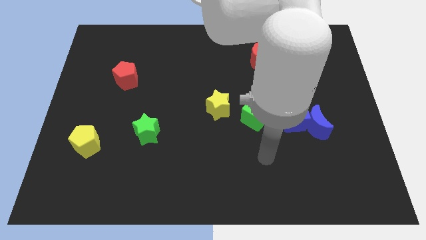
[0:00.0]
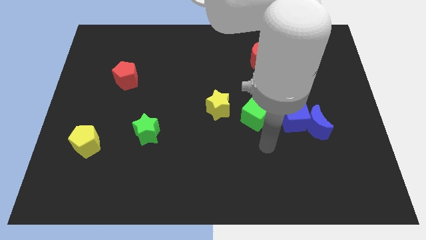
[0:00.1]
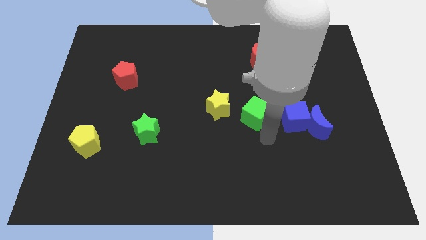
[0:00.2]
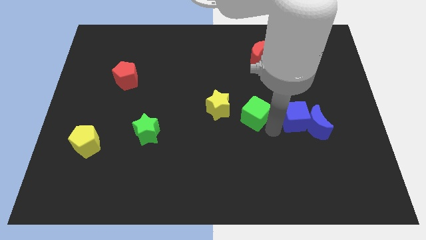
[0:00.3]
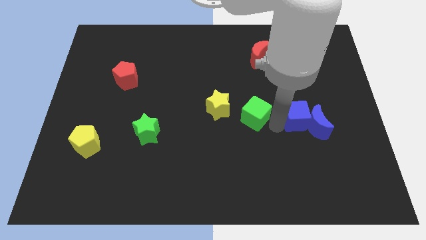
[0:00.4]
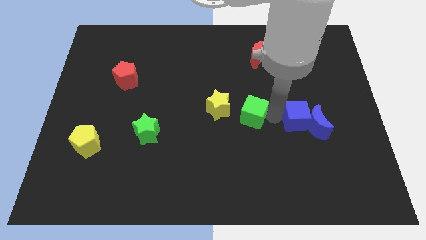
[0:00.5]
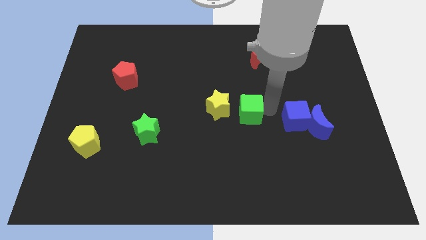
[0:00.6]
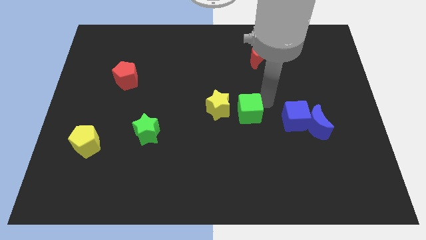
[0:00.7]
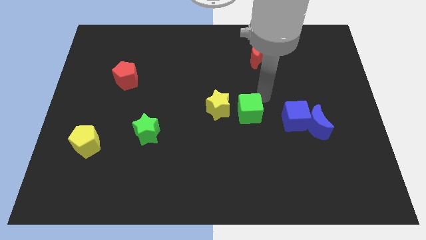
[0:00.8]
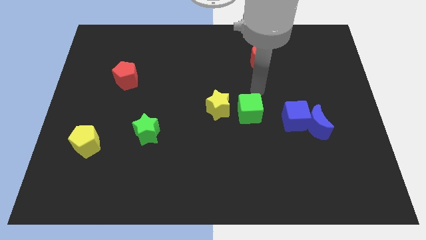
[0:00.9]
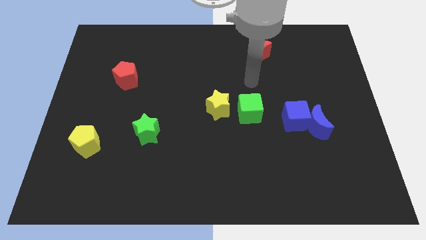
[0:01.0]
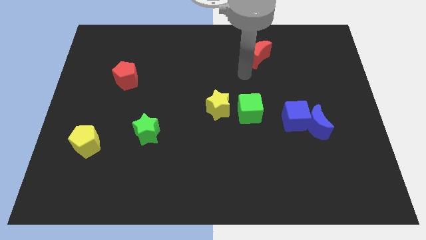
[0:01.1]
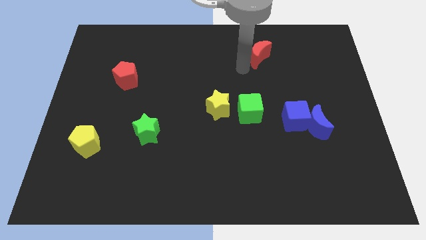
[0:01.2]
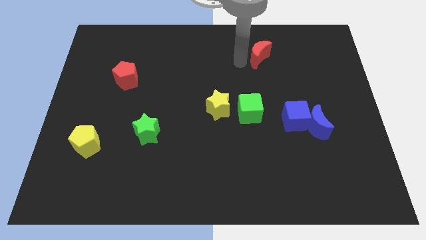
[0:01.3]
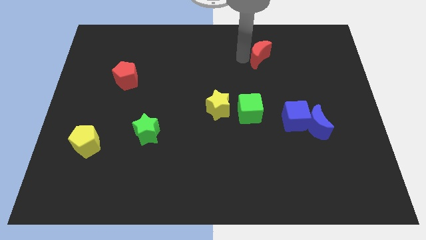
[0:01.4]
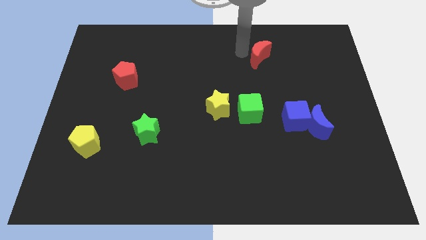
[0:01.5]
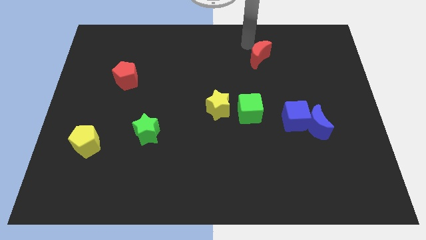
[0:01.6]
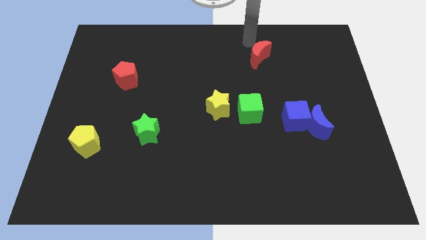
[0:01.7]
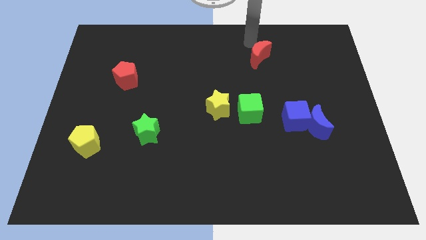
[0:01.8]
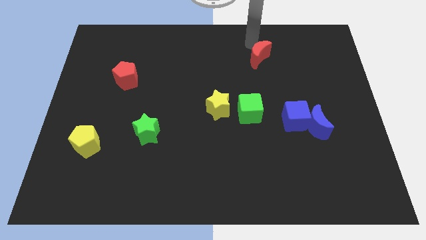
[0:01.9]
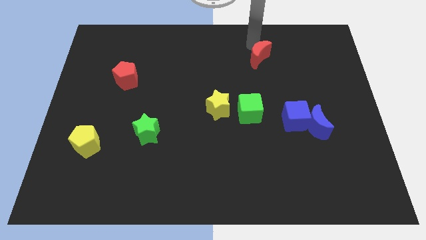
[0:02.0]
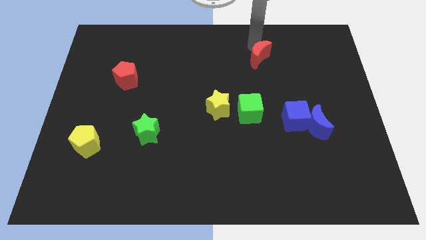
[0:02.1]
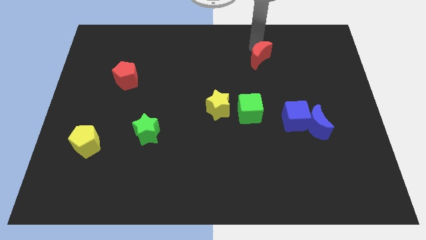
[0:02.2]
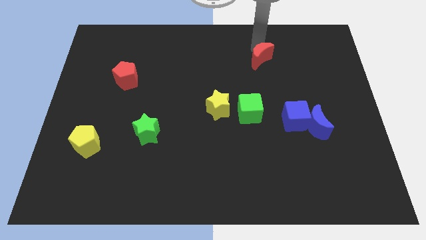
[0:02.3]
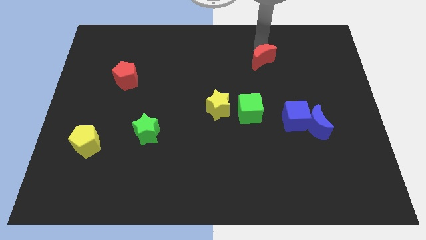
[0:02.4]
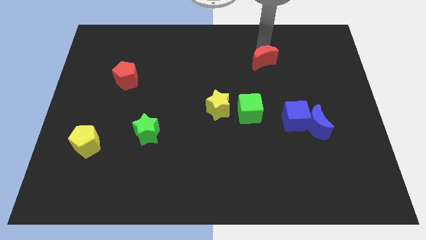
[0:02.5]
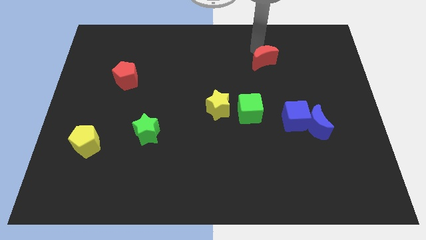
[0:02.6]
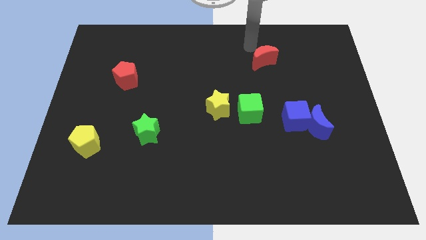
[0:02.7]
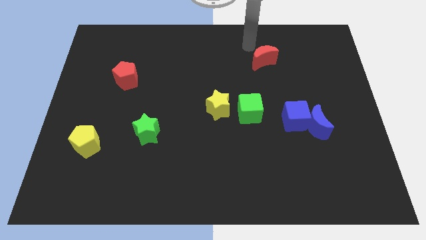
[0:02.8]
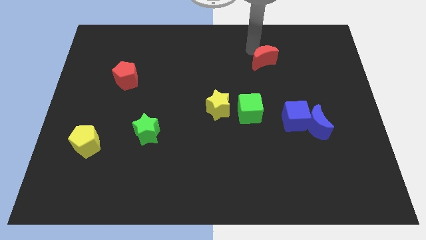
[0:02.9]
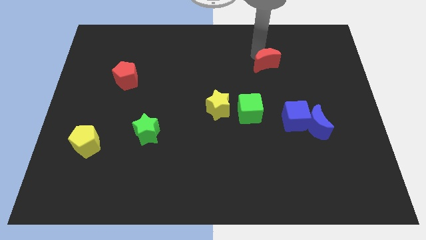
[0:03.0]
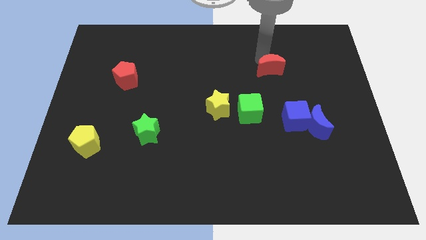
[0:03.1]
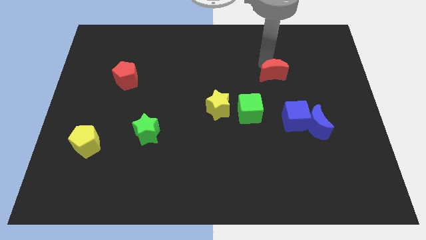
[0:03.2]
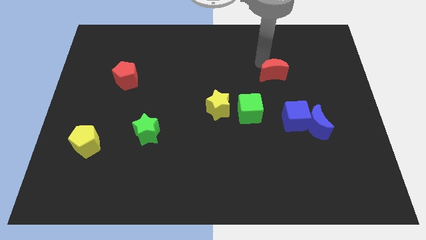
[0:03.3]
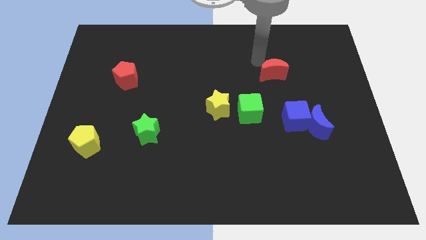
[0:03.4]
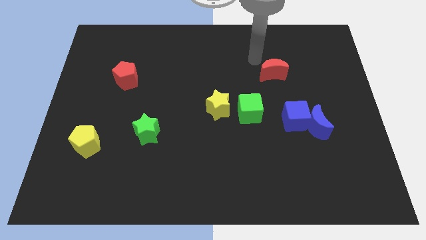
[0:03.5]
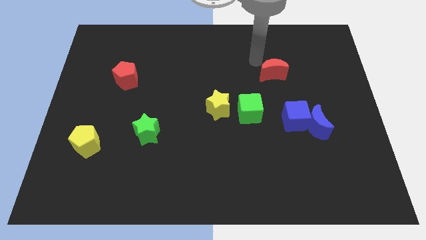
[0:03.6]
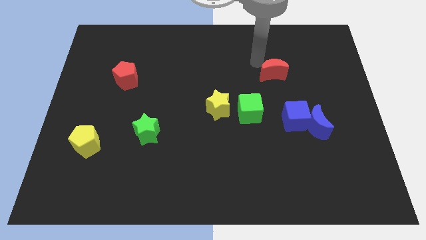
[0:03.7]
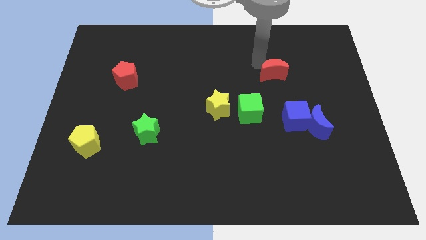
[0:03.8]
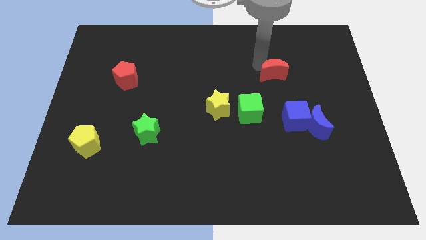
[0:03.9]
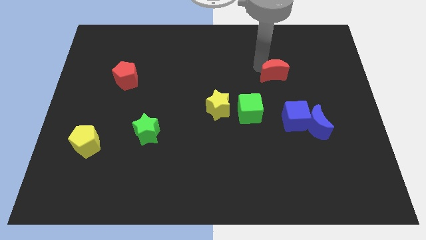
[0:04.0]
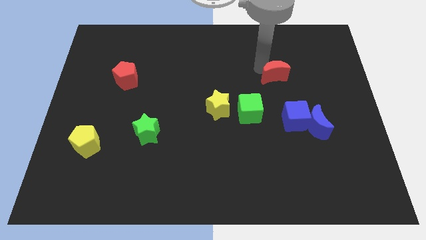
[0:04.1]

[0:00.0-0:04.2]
push the red moon down and then right a bit

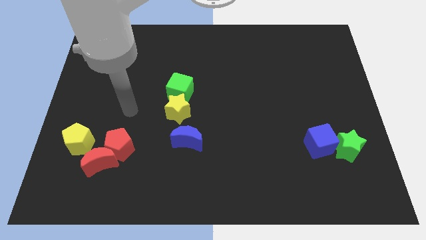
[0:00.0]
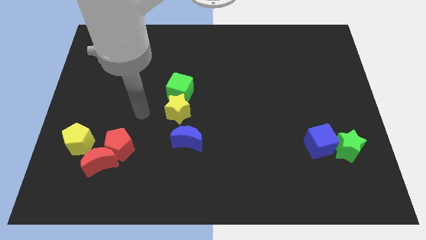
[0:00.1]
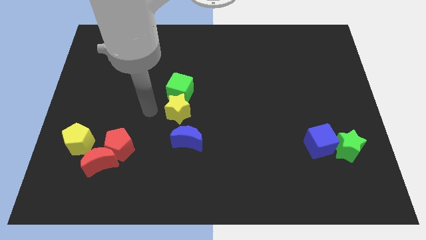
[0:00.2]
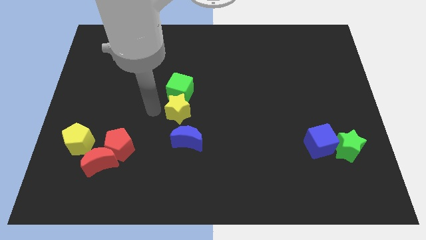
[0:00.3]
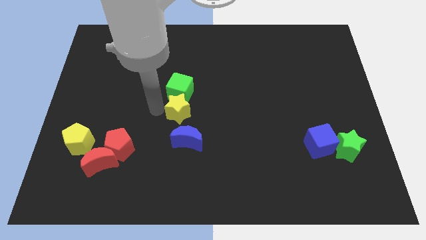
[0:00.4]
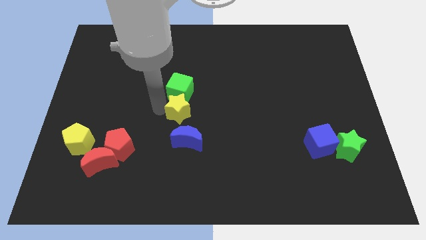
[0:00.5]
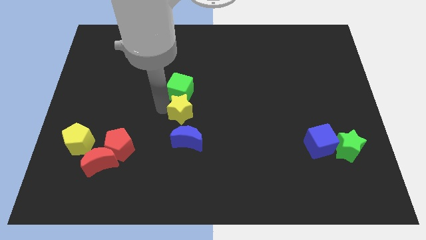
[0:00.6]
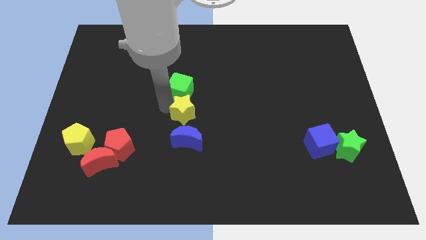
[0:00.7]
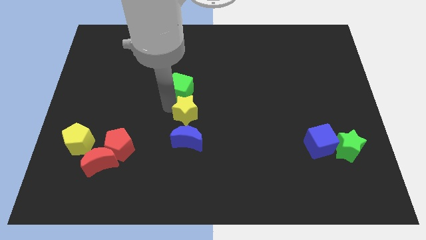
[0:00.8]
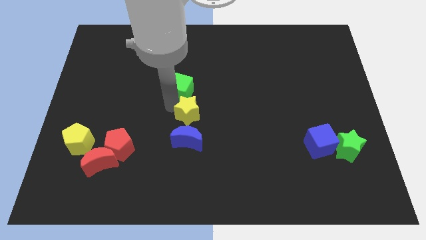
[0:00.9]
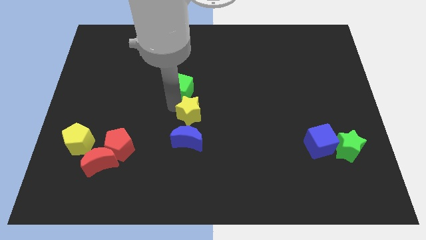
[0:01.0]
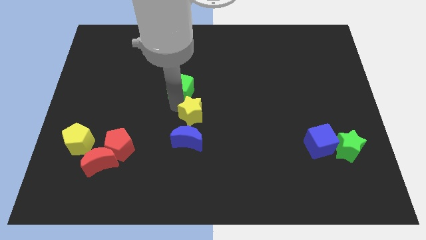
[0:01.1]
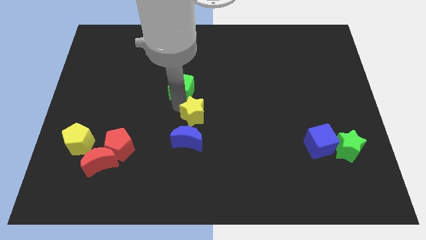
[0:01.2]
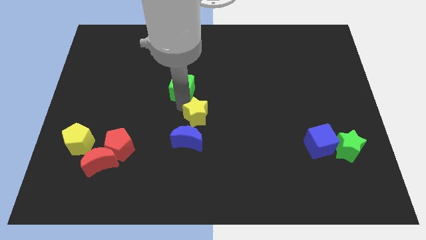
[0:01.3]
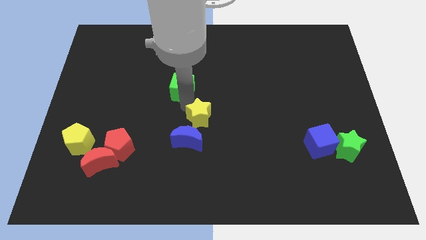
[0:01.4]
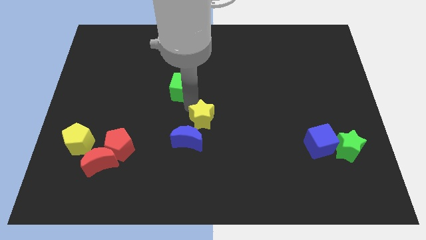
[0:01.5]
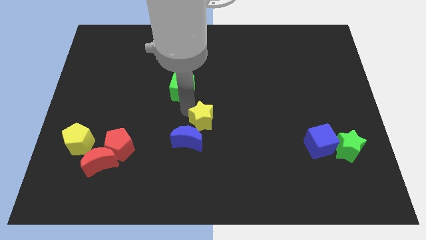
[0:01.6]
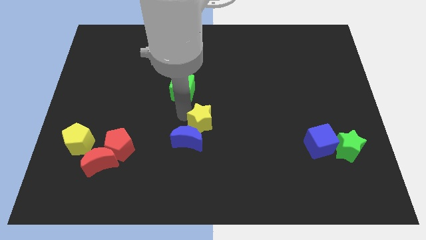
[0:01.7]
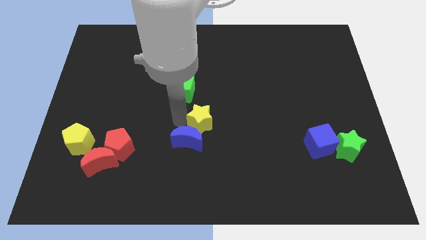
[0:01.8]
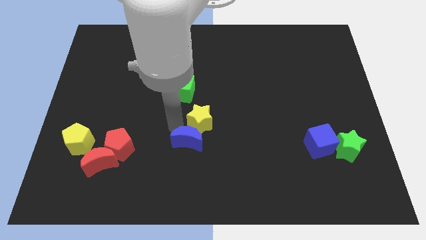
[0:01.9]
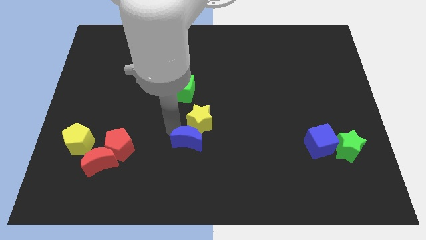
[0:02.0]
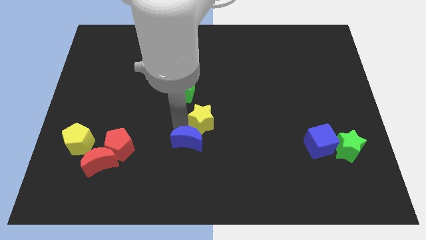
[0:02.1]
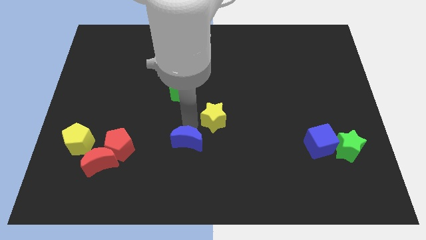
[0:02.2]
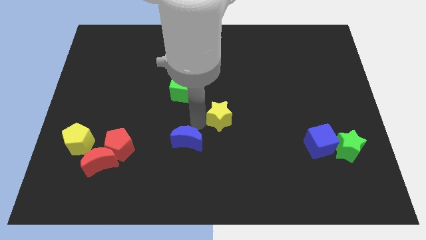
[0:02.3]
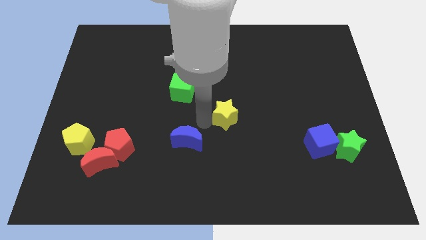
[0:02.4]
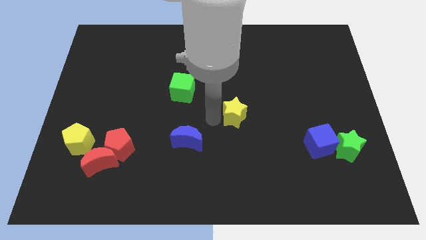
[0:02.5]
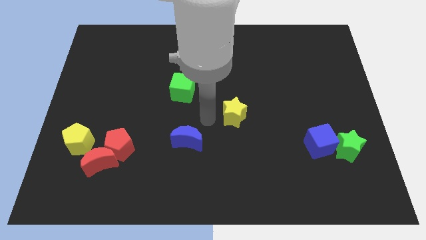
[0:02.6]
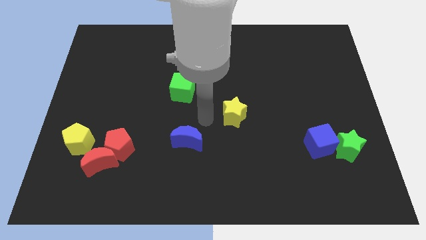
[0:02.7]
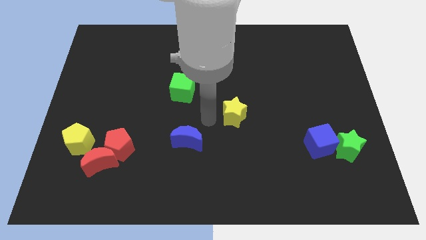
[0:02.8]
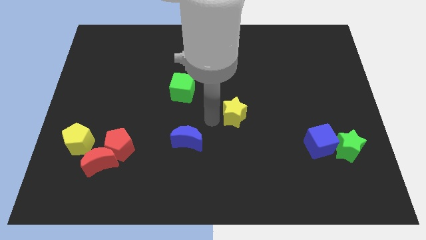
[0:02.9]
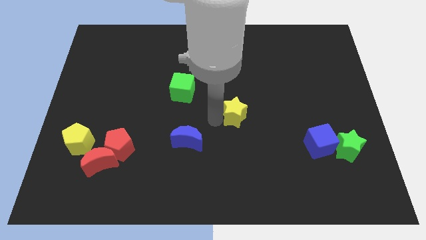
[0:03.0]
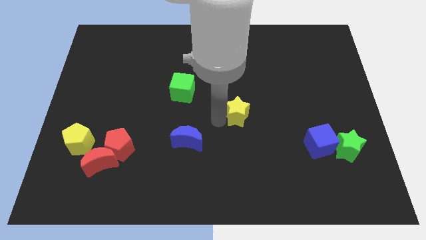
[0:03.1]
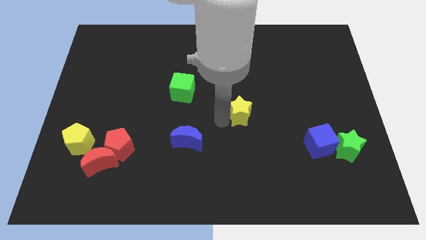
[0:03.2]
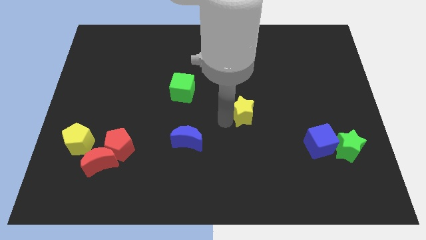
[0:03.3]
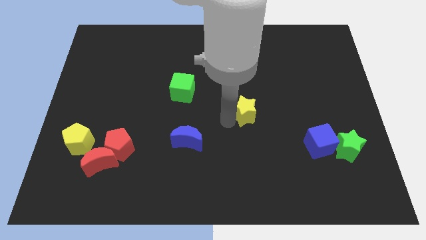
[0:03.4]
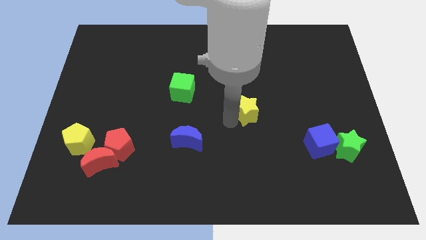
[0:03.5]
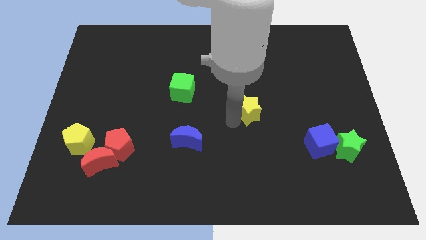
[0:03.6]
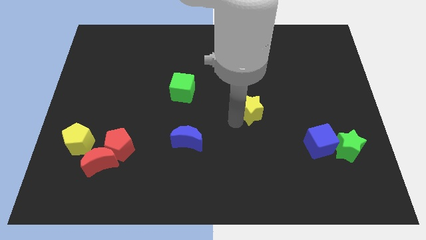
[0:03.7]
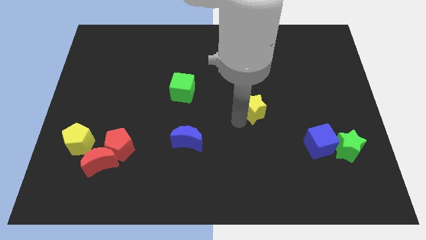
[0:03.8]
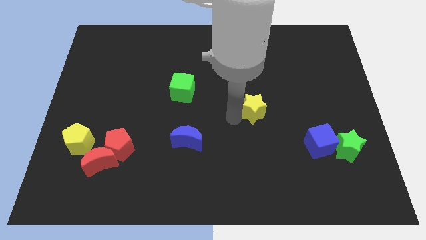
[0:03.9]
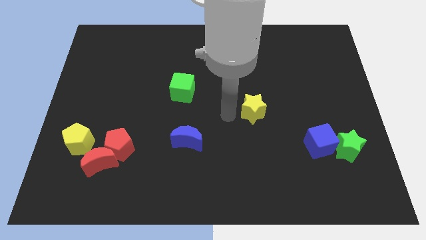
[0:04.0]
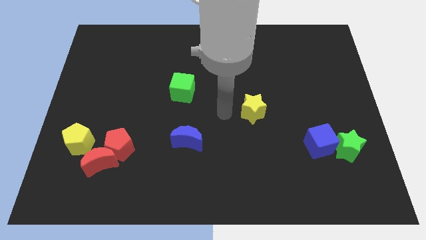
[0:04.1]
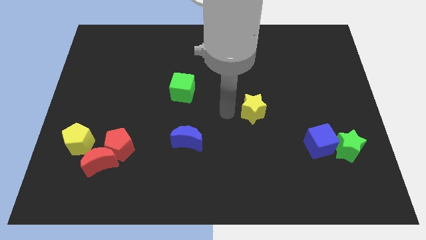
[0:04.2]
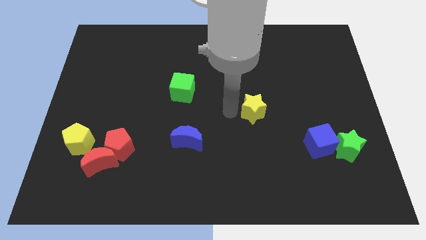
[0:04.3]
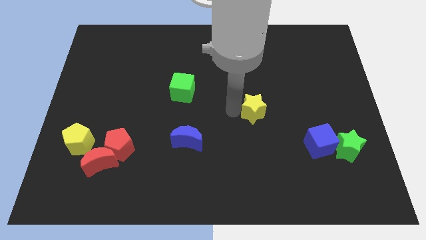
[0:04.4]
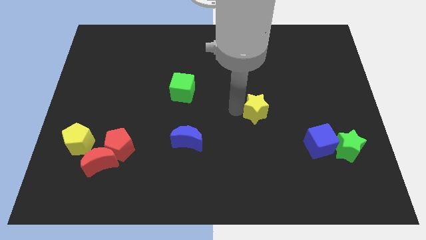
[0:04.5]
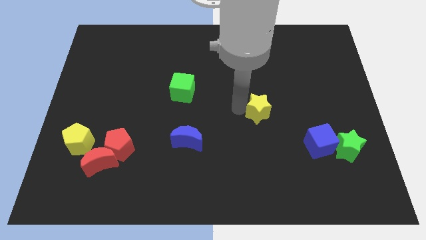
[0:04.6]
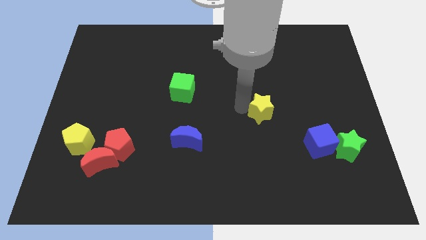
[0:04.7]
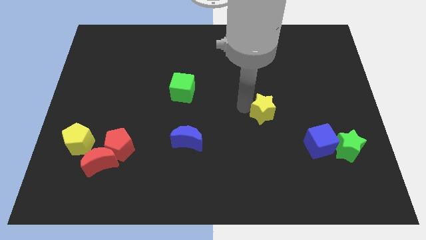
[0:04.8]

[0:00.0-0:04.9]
push the yellow star right
